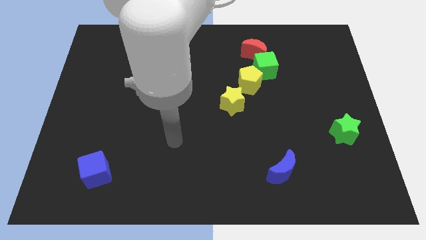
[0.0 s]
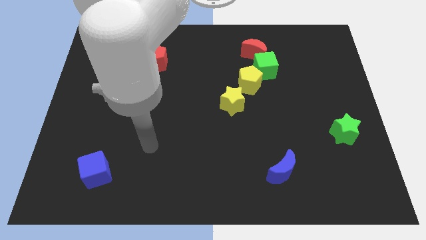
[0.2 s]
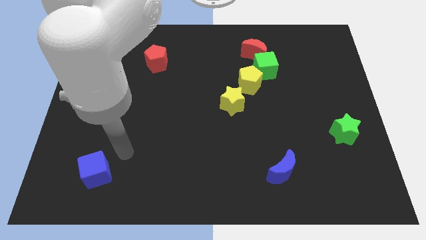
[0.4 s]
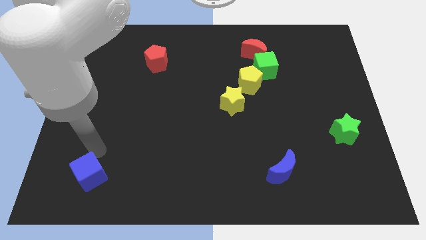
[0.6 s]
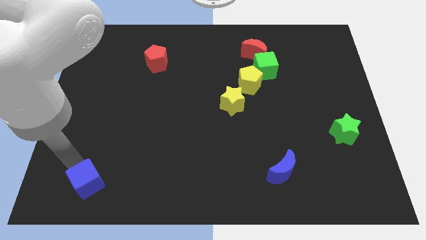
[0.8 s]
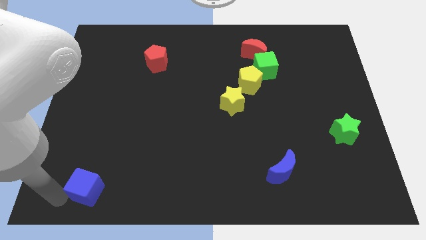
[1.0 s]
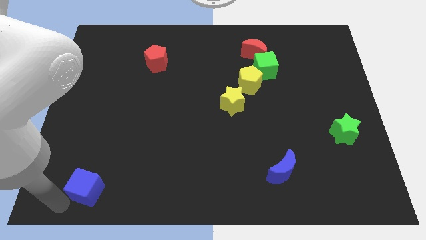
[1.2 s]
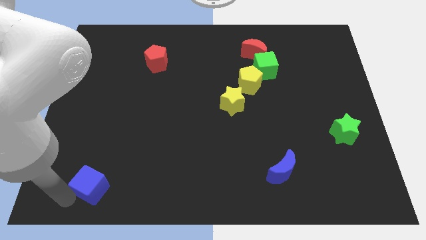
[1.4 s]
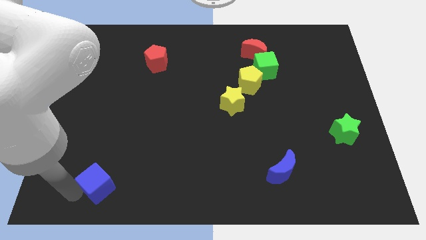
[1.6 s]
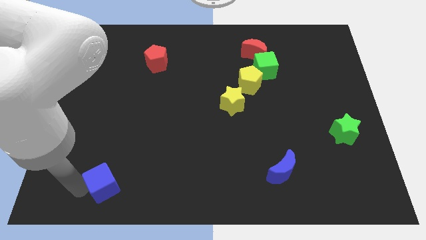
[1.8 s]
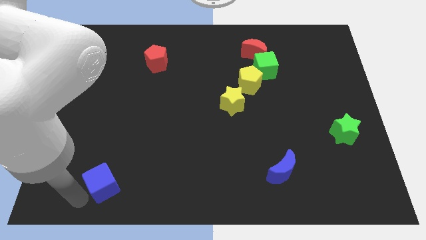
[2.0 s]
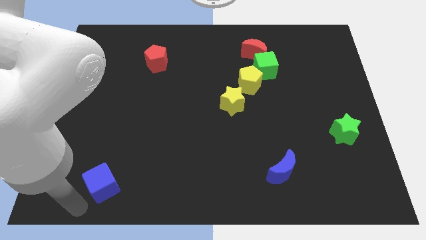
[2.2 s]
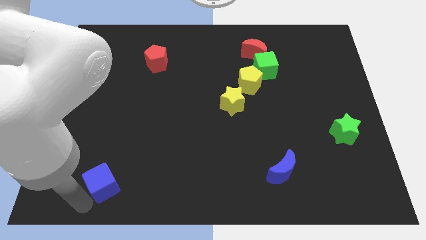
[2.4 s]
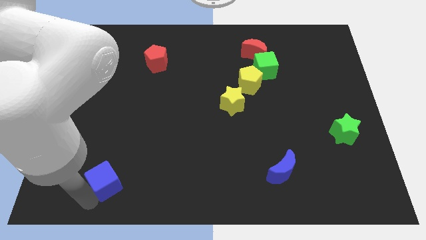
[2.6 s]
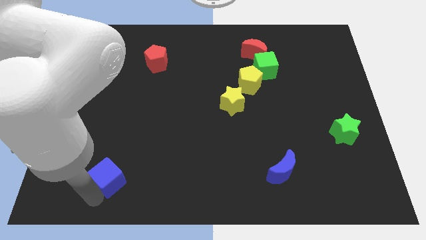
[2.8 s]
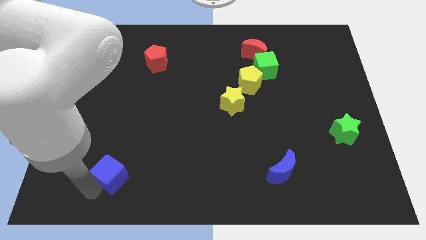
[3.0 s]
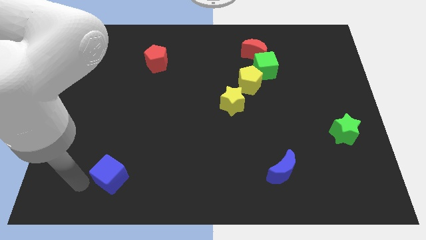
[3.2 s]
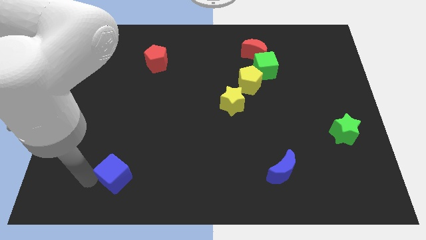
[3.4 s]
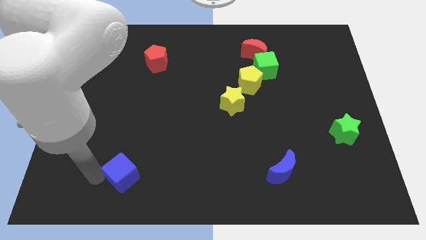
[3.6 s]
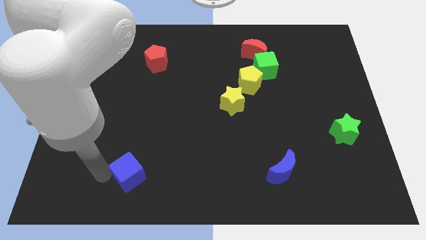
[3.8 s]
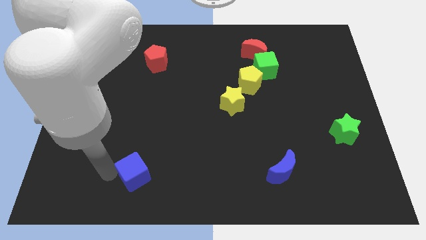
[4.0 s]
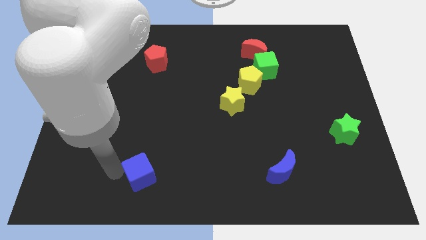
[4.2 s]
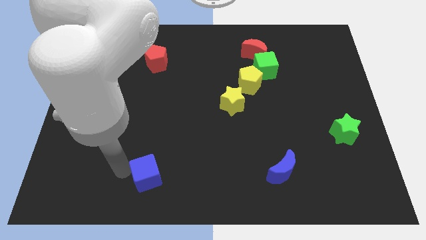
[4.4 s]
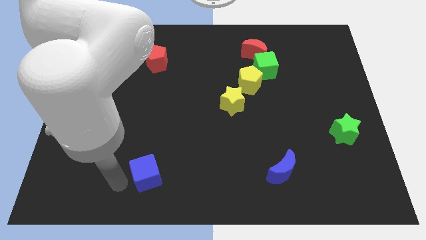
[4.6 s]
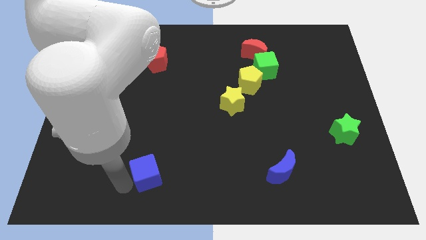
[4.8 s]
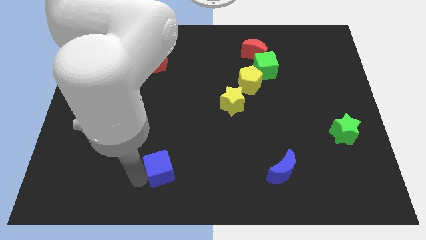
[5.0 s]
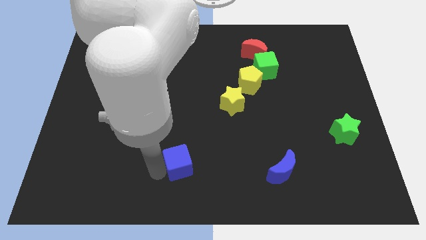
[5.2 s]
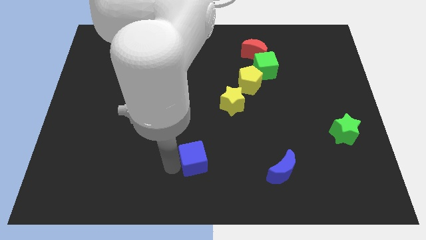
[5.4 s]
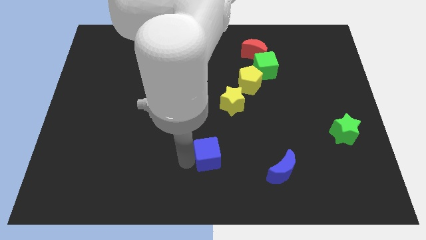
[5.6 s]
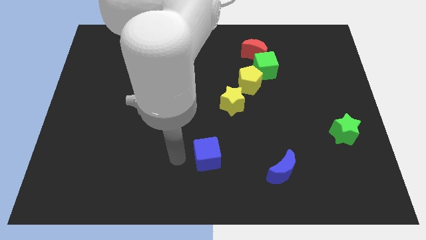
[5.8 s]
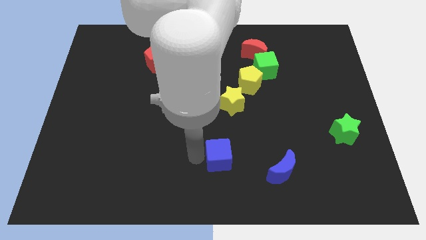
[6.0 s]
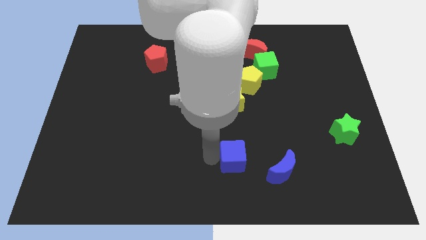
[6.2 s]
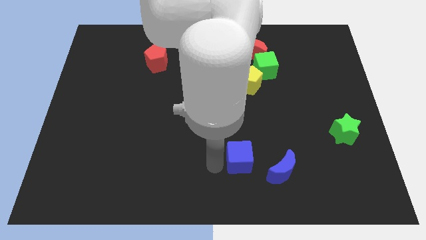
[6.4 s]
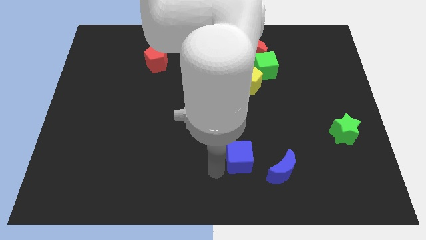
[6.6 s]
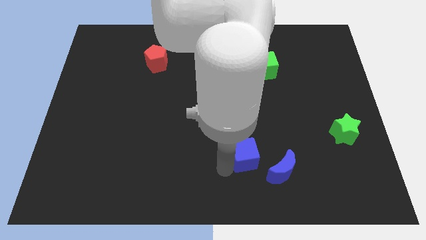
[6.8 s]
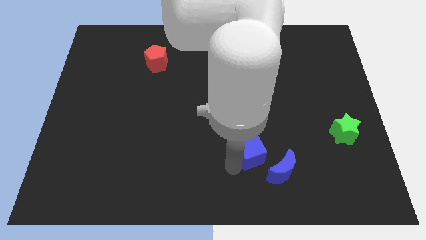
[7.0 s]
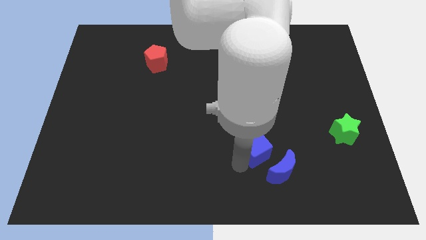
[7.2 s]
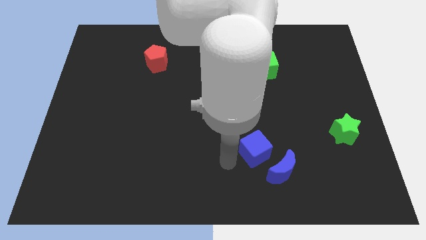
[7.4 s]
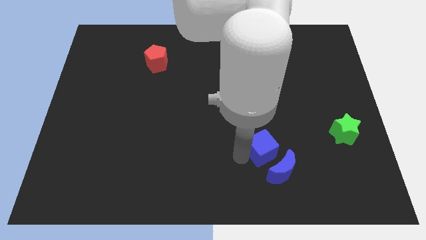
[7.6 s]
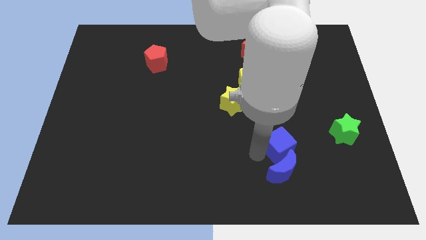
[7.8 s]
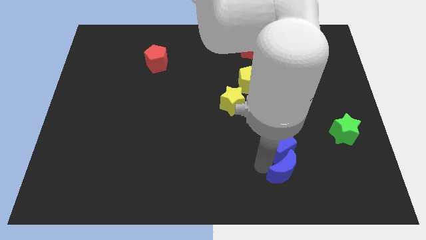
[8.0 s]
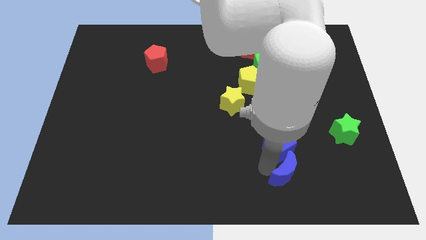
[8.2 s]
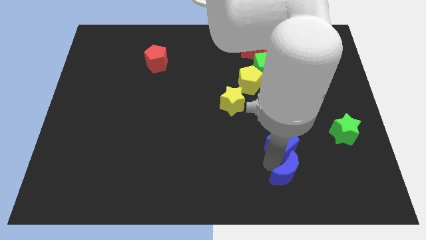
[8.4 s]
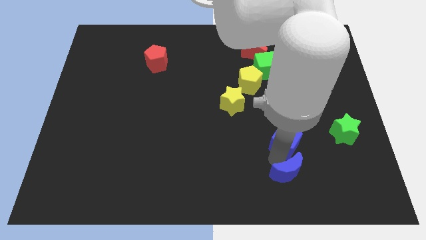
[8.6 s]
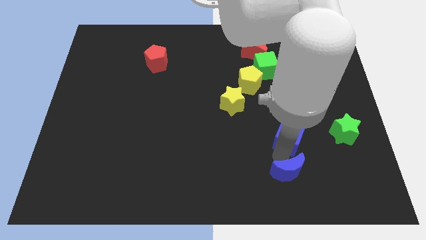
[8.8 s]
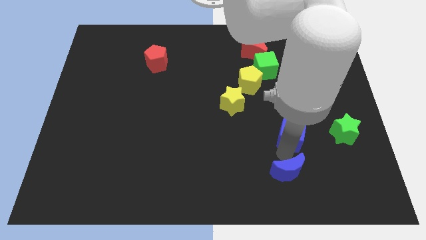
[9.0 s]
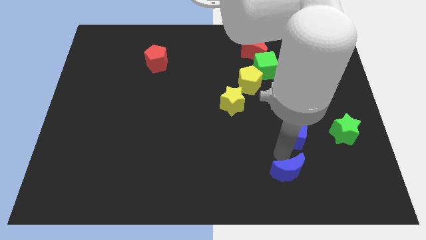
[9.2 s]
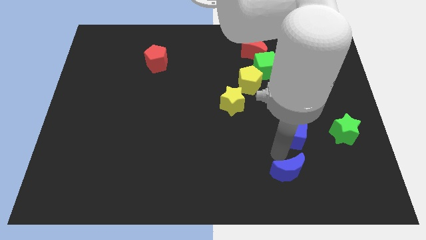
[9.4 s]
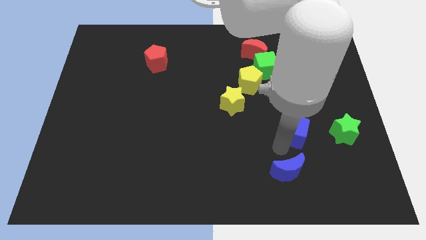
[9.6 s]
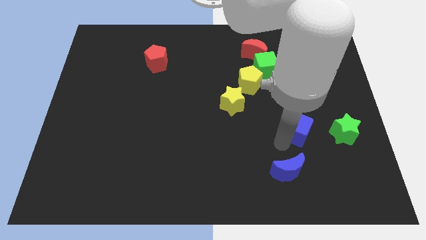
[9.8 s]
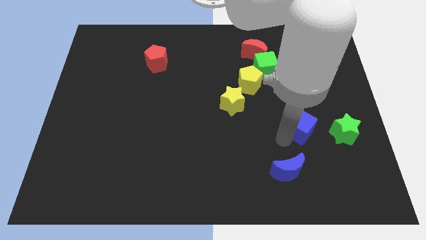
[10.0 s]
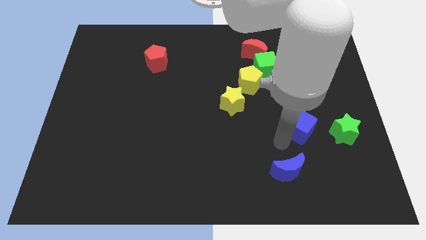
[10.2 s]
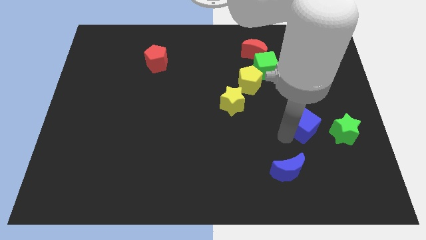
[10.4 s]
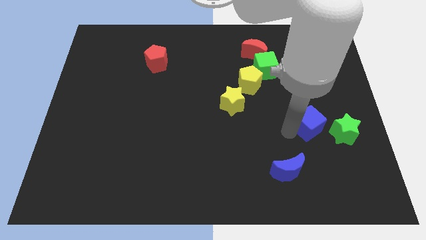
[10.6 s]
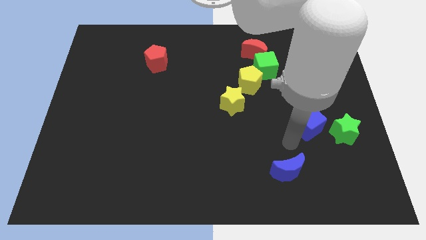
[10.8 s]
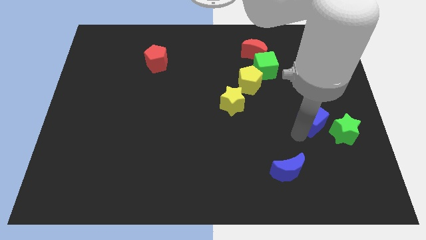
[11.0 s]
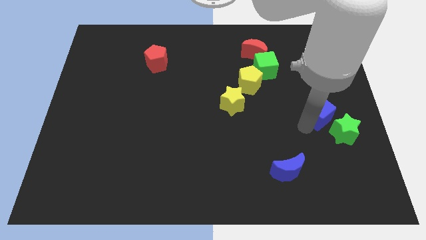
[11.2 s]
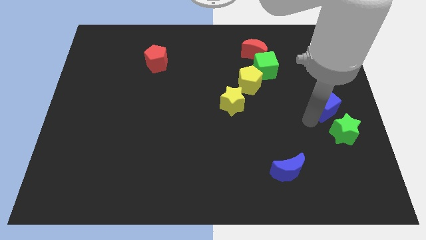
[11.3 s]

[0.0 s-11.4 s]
slide the blue cube to the center right
